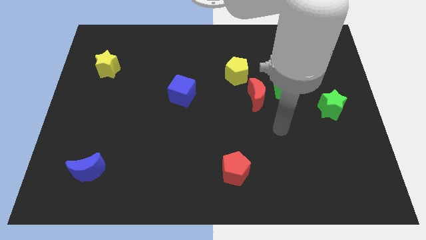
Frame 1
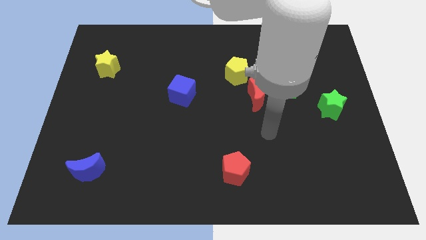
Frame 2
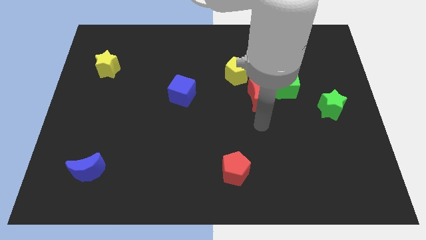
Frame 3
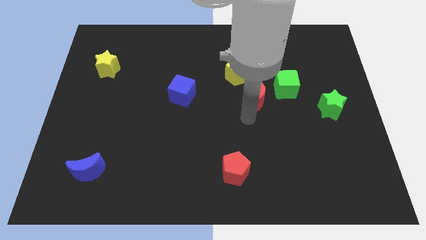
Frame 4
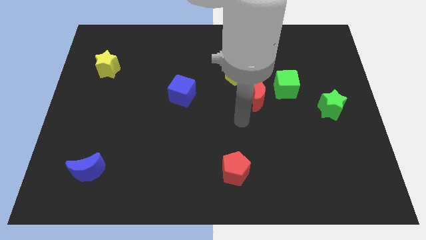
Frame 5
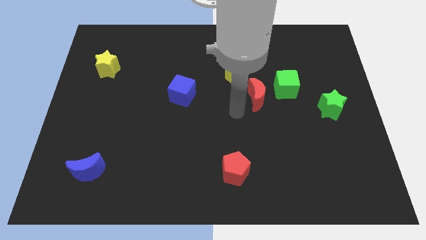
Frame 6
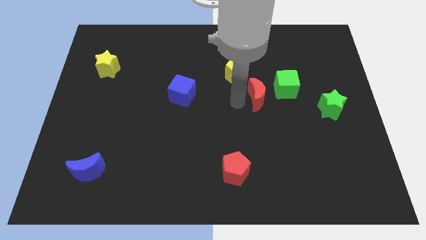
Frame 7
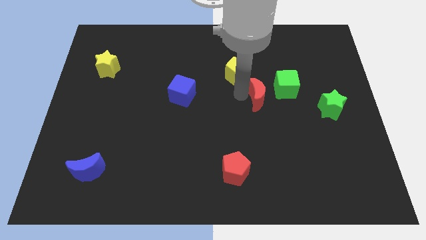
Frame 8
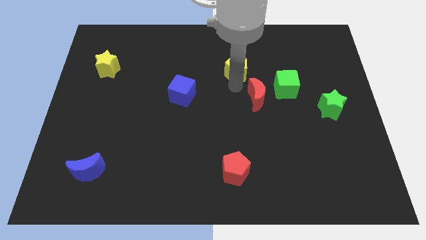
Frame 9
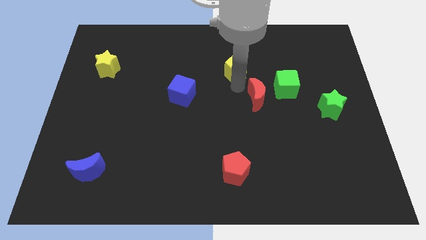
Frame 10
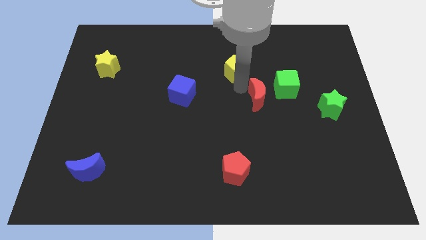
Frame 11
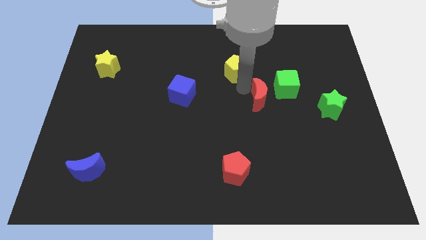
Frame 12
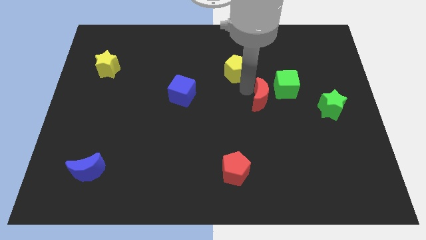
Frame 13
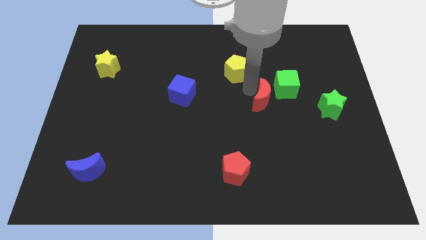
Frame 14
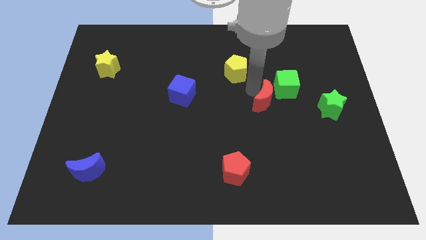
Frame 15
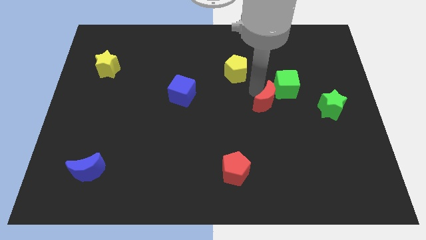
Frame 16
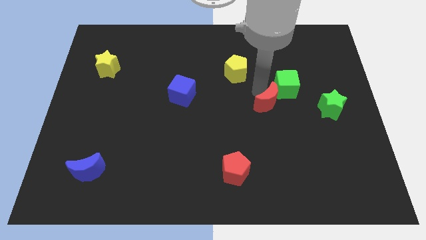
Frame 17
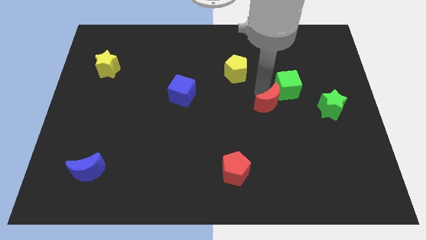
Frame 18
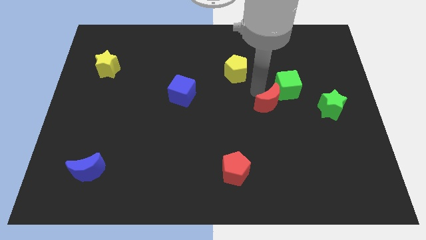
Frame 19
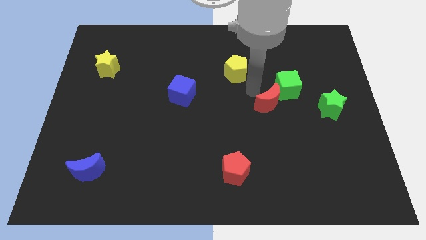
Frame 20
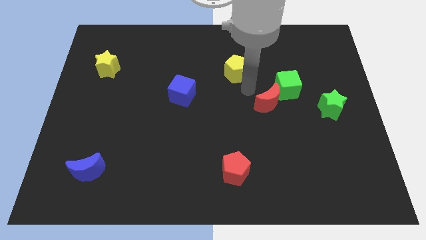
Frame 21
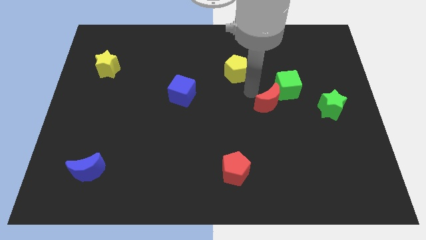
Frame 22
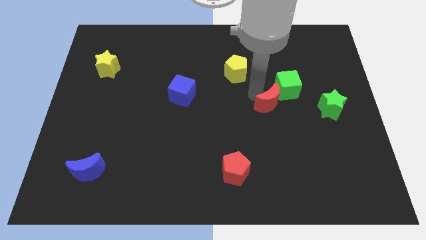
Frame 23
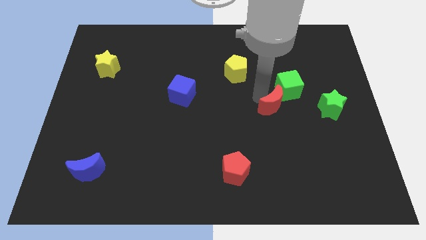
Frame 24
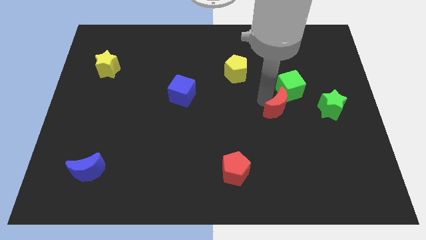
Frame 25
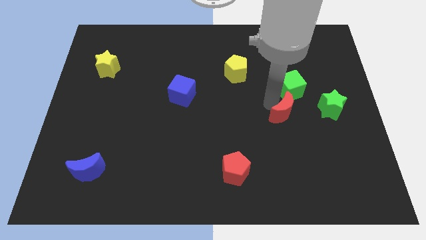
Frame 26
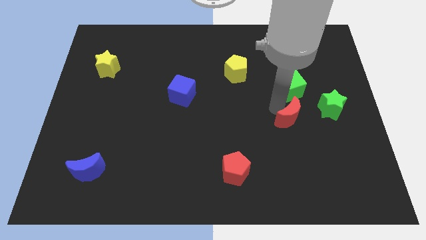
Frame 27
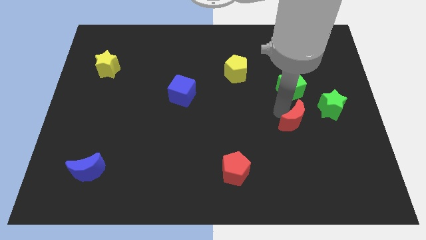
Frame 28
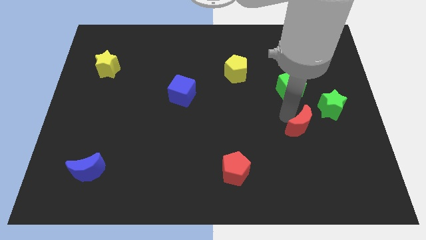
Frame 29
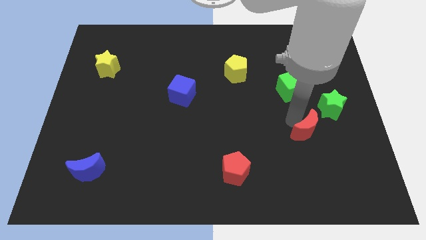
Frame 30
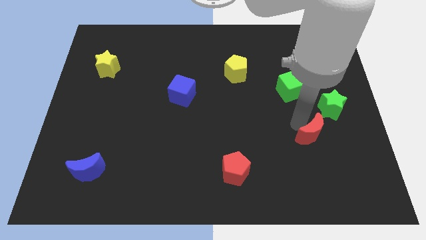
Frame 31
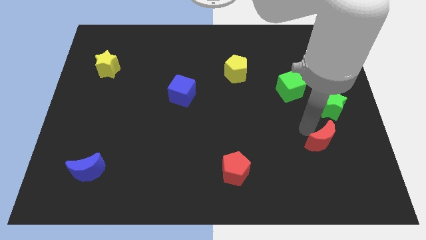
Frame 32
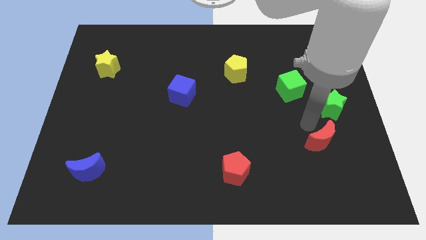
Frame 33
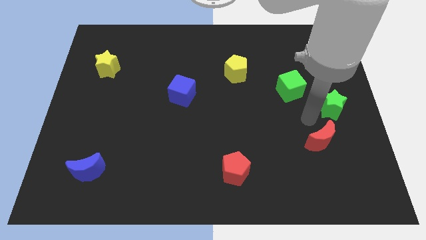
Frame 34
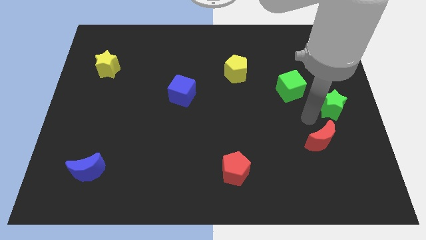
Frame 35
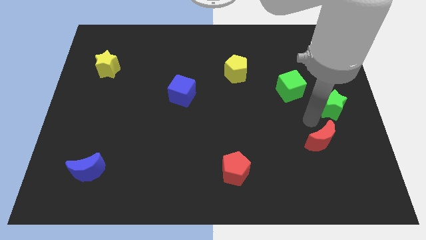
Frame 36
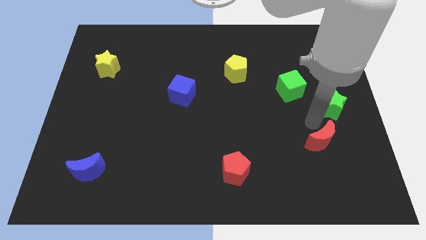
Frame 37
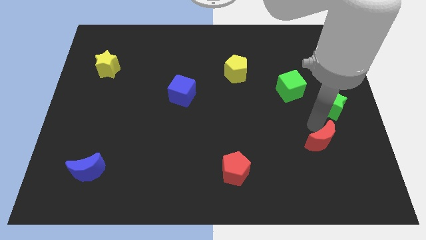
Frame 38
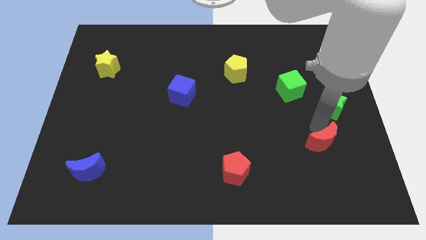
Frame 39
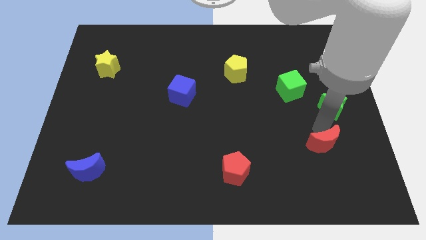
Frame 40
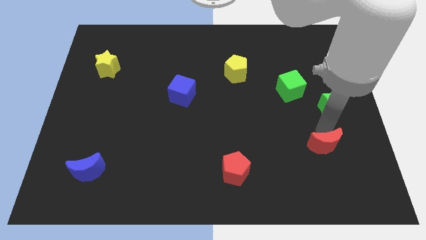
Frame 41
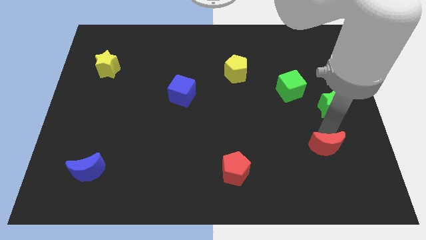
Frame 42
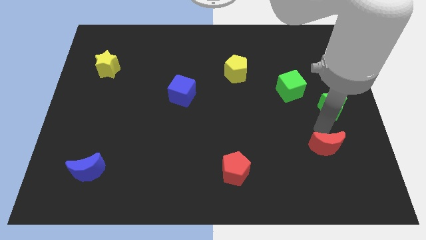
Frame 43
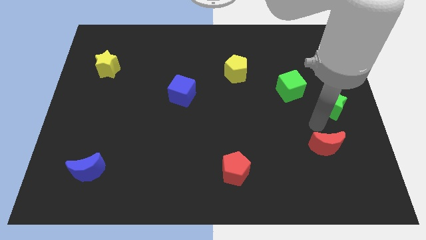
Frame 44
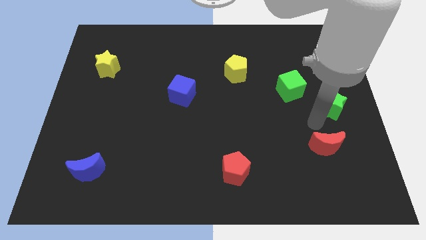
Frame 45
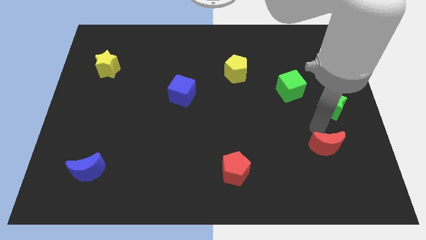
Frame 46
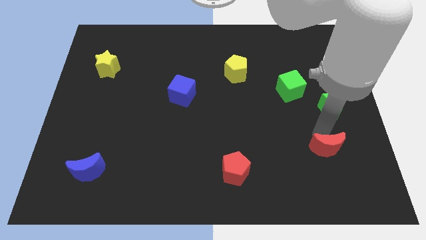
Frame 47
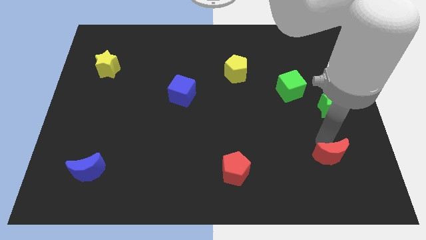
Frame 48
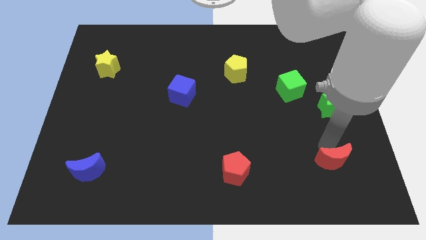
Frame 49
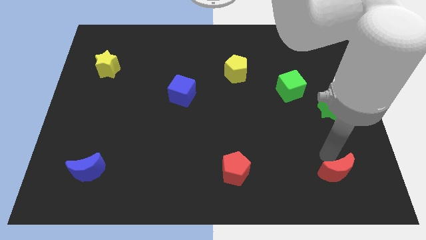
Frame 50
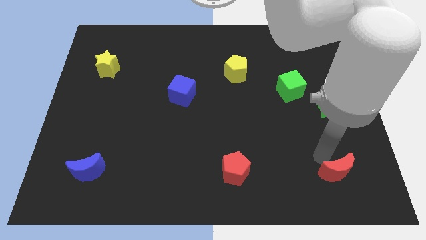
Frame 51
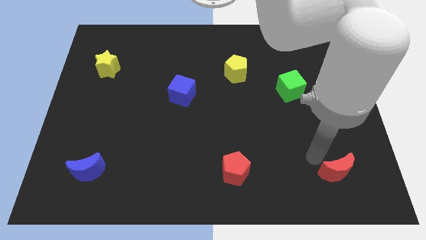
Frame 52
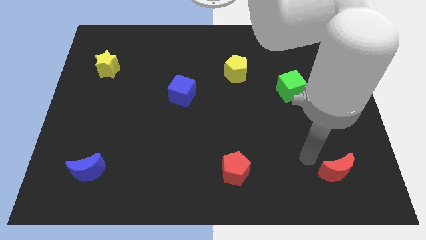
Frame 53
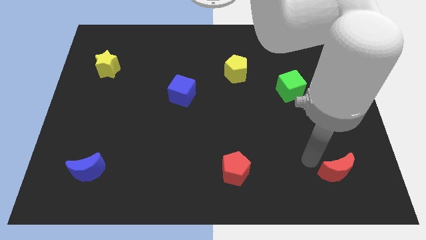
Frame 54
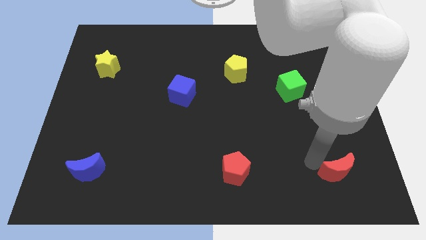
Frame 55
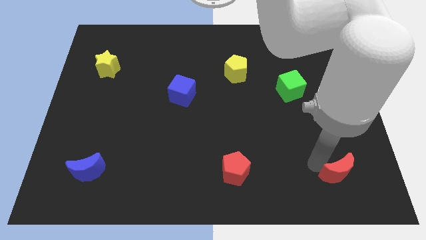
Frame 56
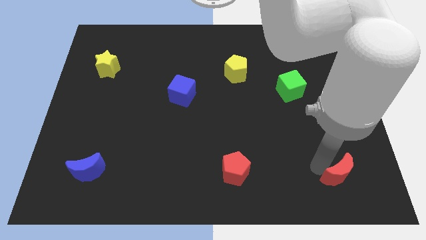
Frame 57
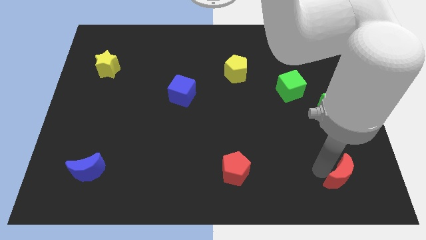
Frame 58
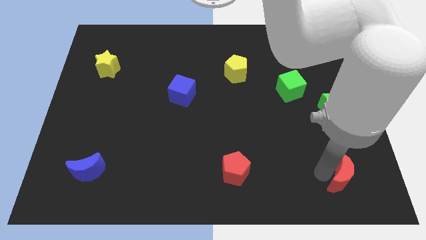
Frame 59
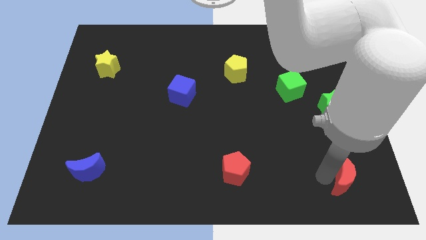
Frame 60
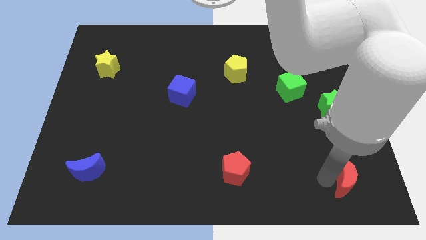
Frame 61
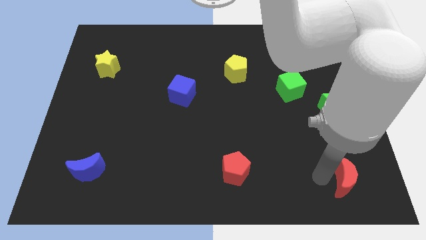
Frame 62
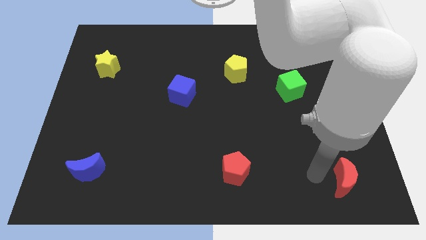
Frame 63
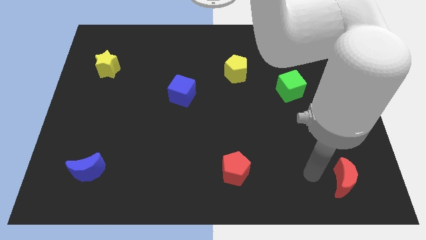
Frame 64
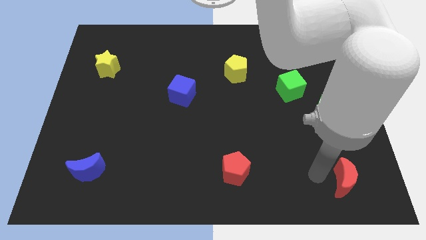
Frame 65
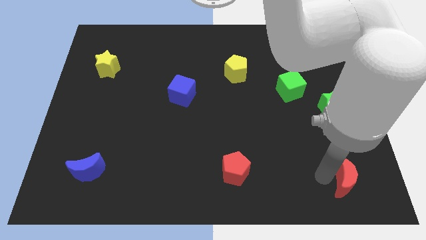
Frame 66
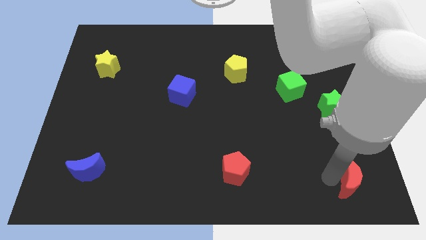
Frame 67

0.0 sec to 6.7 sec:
slide the red moon to the bottom right of the board
